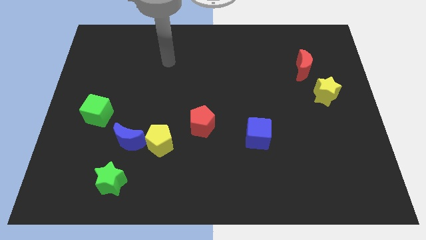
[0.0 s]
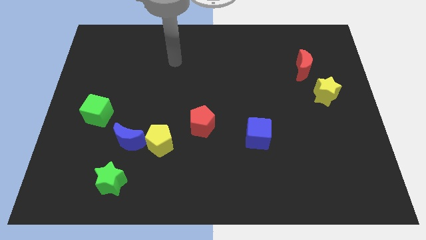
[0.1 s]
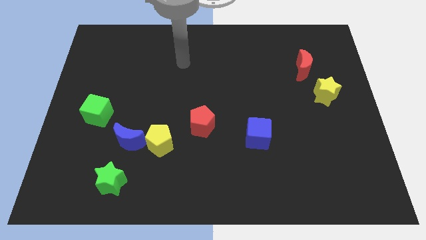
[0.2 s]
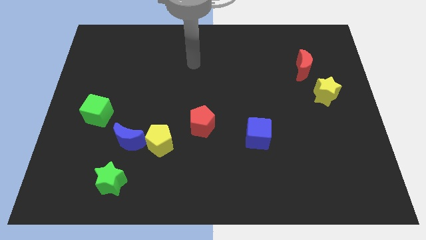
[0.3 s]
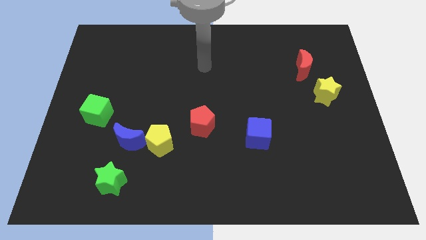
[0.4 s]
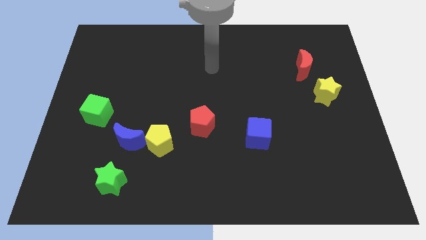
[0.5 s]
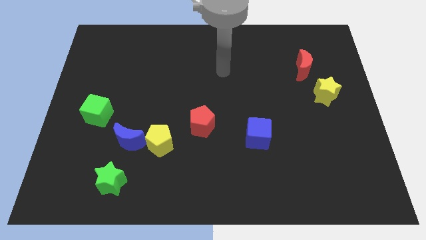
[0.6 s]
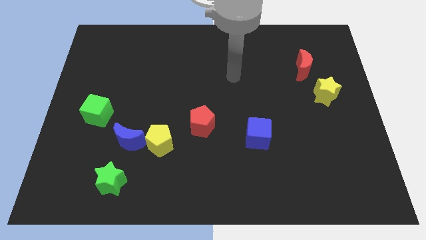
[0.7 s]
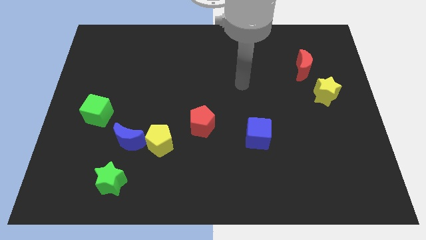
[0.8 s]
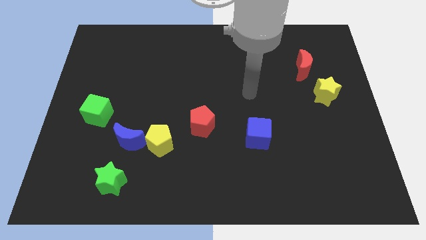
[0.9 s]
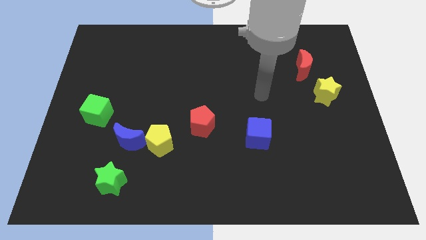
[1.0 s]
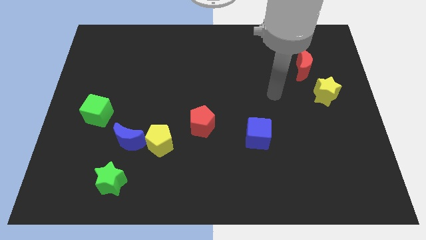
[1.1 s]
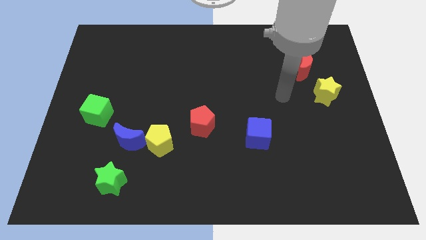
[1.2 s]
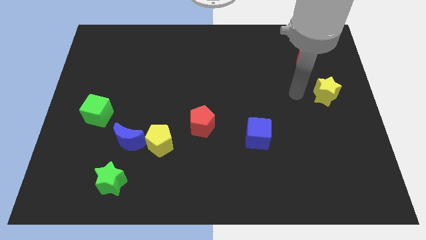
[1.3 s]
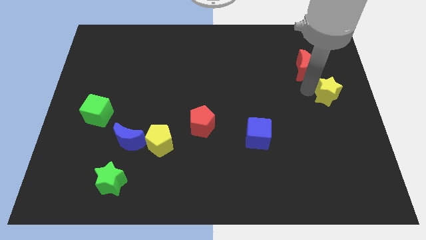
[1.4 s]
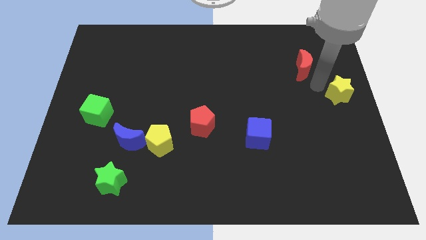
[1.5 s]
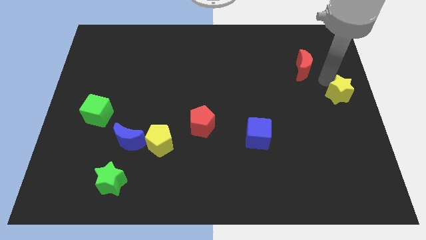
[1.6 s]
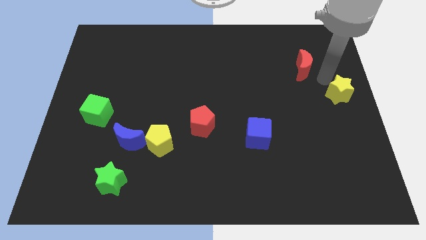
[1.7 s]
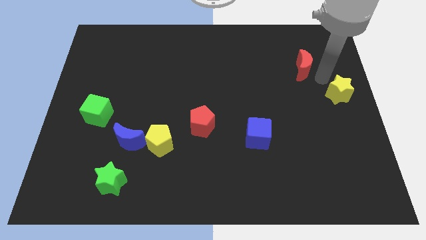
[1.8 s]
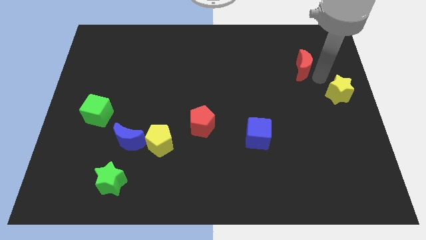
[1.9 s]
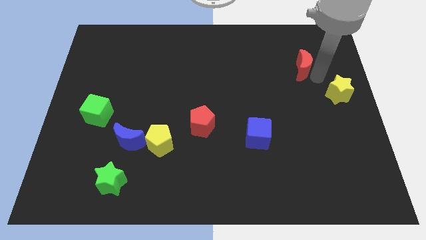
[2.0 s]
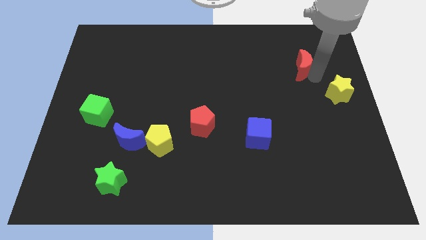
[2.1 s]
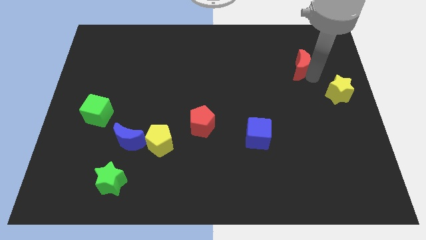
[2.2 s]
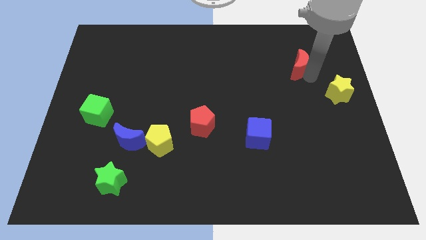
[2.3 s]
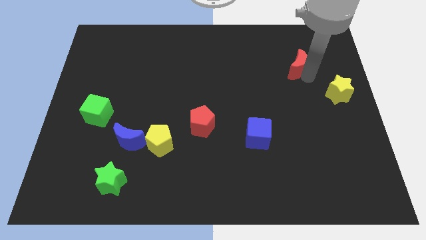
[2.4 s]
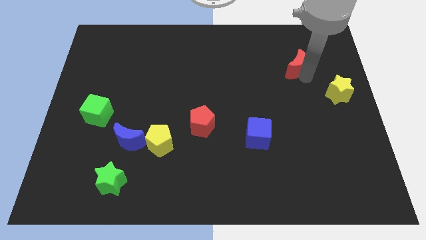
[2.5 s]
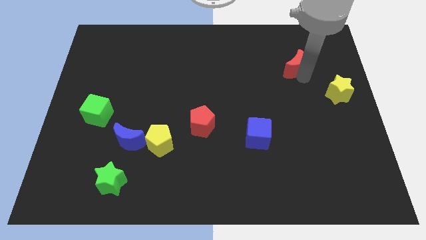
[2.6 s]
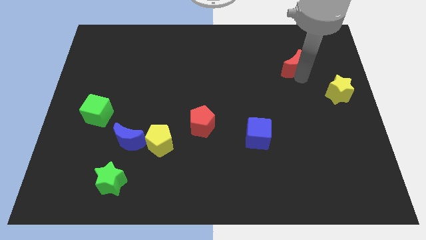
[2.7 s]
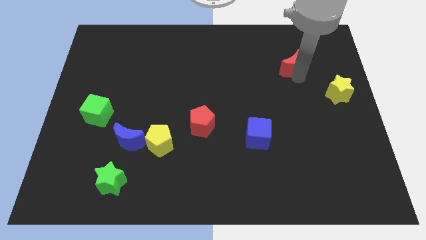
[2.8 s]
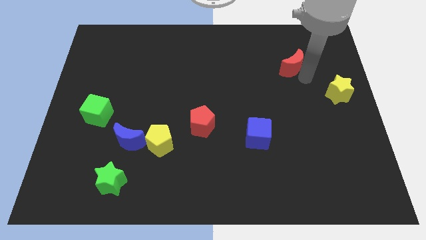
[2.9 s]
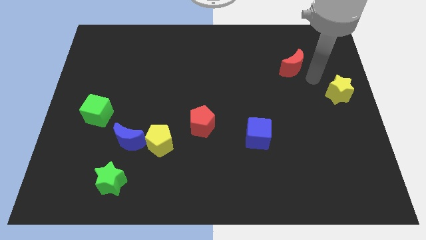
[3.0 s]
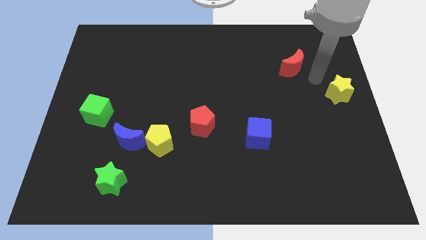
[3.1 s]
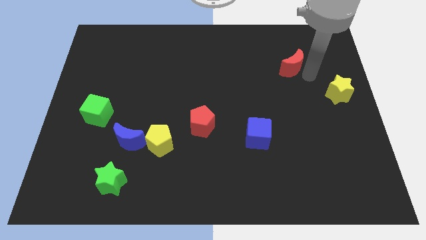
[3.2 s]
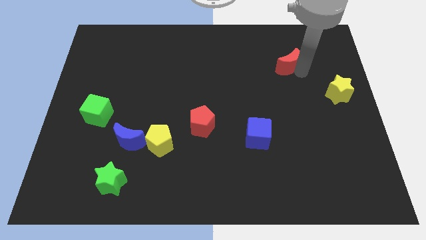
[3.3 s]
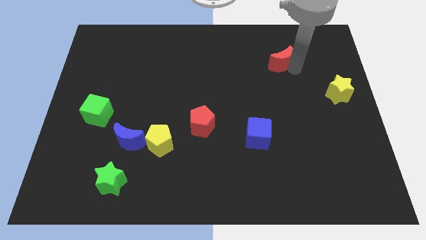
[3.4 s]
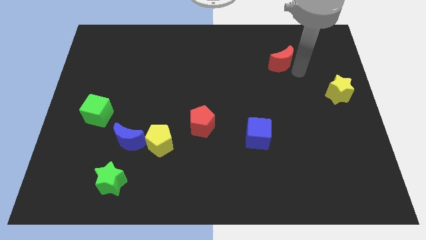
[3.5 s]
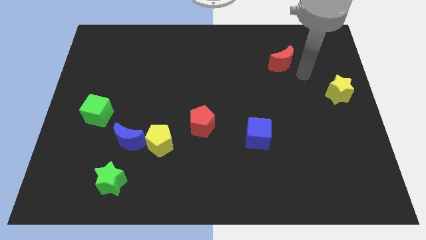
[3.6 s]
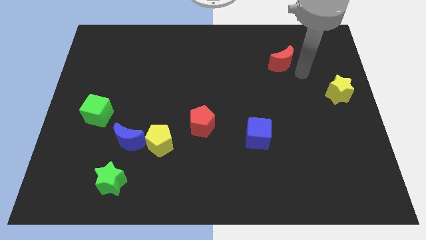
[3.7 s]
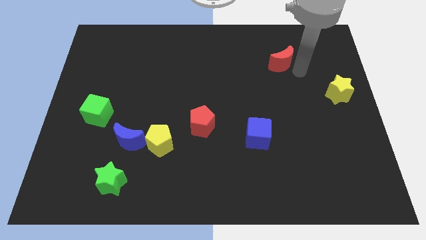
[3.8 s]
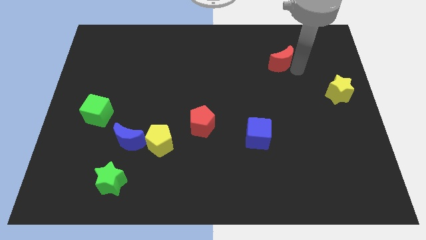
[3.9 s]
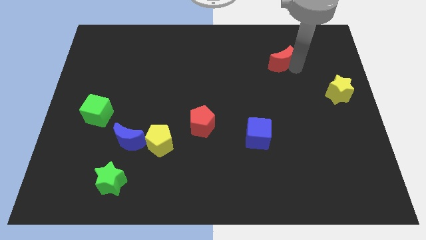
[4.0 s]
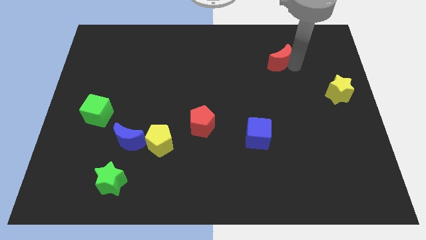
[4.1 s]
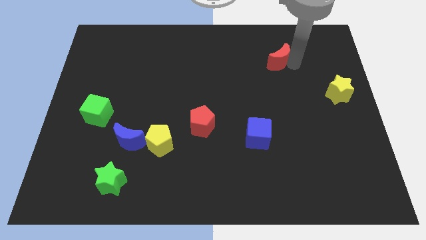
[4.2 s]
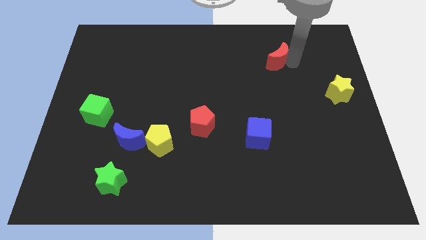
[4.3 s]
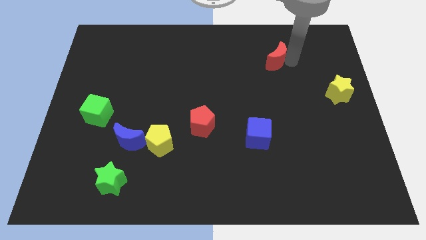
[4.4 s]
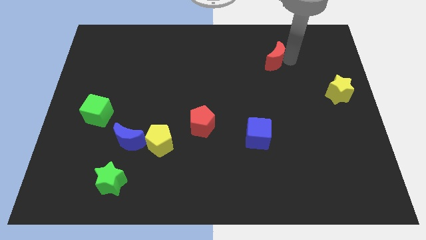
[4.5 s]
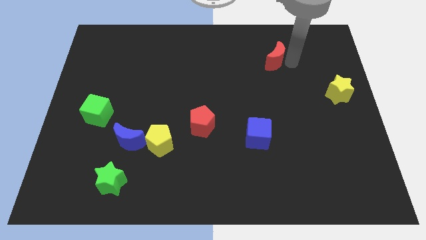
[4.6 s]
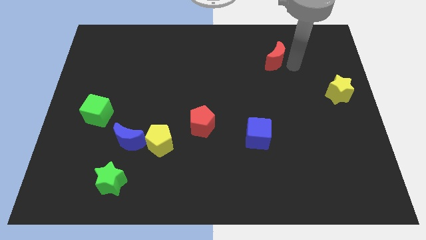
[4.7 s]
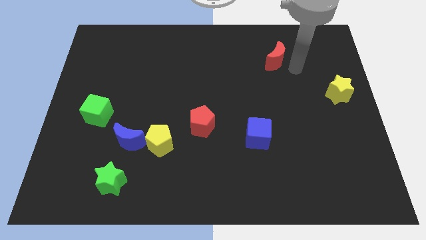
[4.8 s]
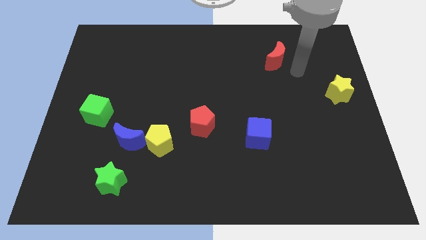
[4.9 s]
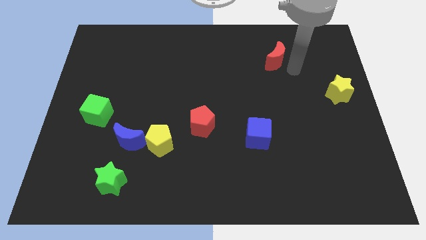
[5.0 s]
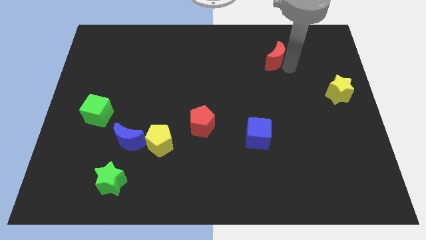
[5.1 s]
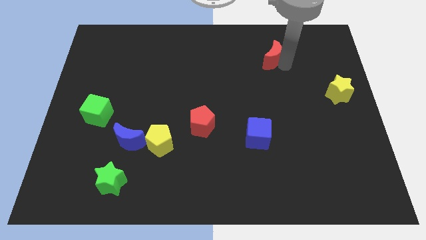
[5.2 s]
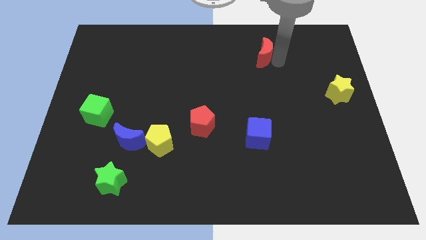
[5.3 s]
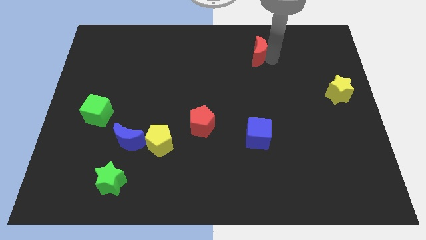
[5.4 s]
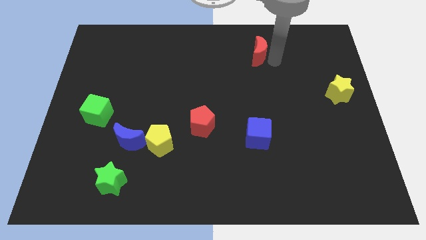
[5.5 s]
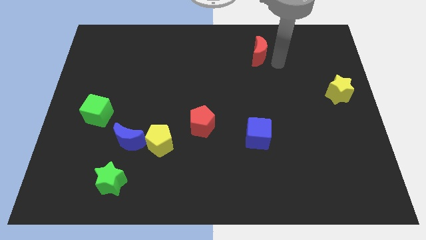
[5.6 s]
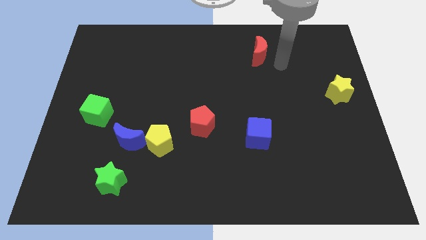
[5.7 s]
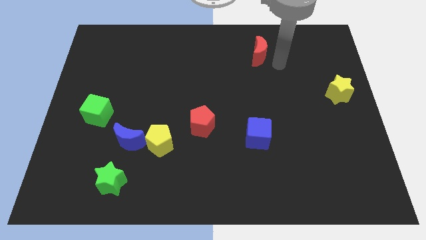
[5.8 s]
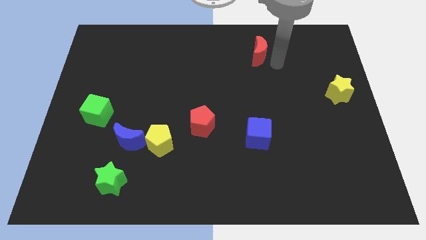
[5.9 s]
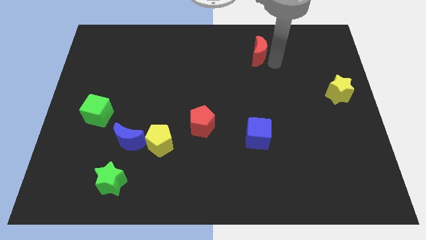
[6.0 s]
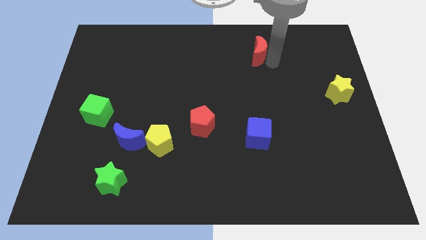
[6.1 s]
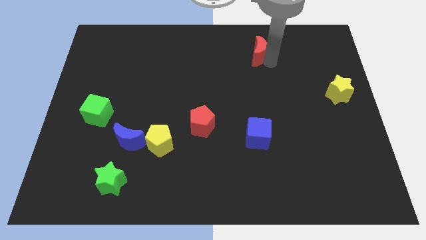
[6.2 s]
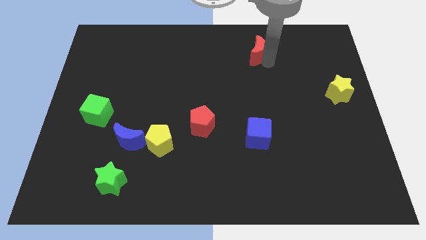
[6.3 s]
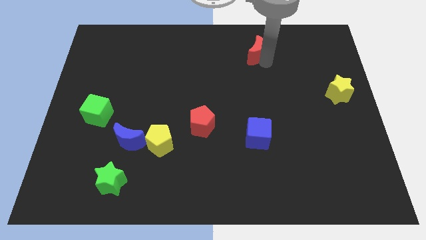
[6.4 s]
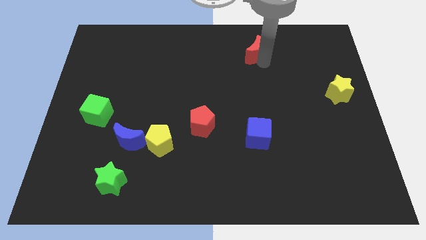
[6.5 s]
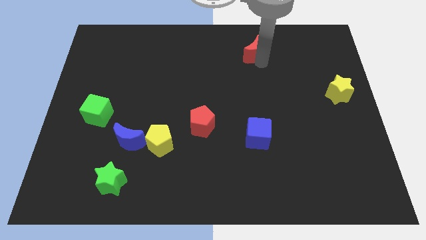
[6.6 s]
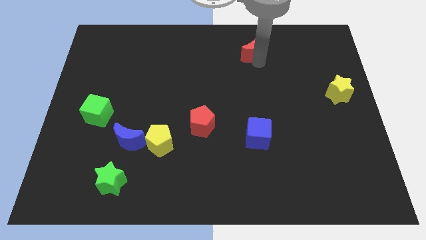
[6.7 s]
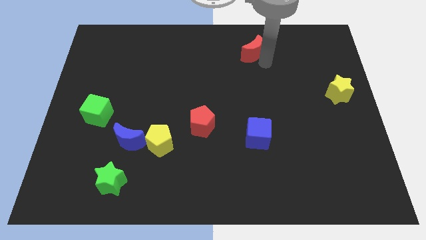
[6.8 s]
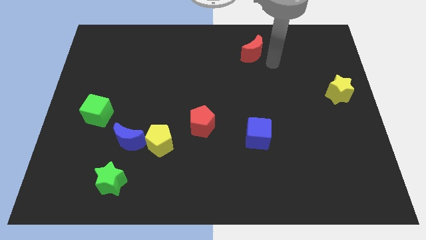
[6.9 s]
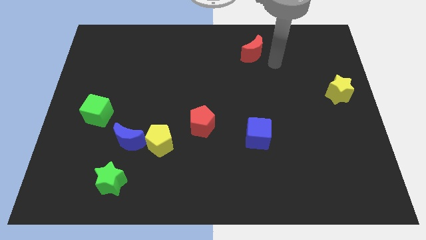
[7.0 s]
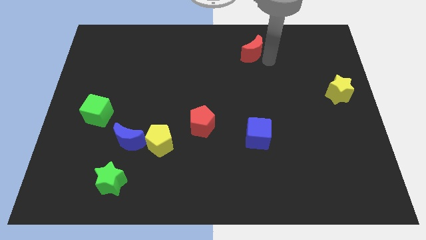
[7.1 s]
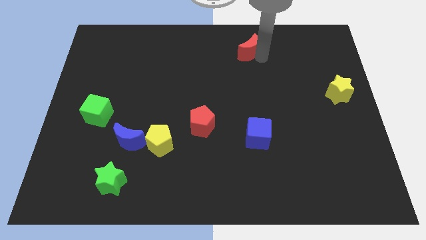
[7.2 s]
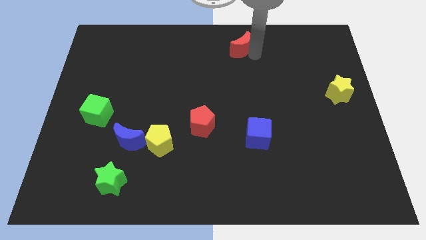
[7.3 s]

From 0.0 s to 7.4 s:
move the red moon to the top side
